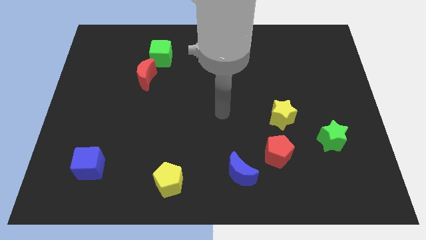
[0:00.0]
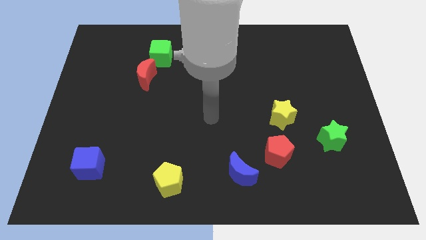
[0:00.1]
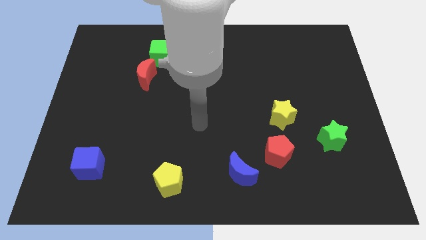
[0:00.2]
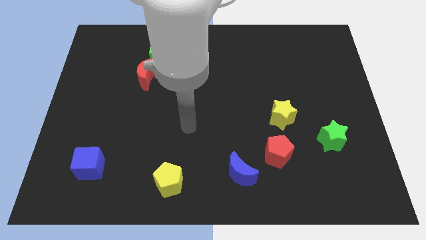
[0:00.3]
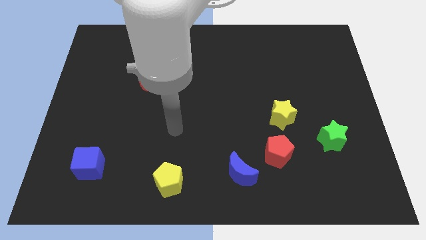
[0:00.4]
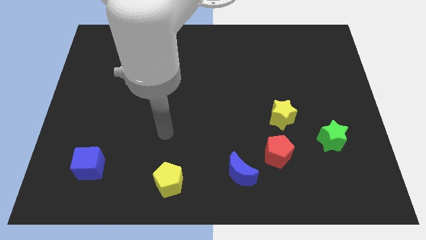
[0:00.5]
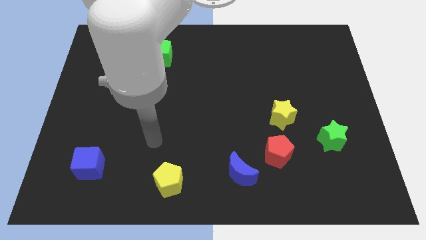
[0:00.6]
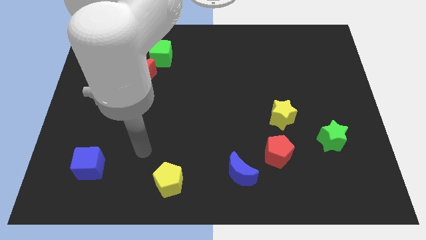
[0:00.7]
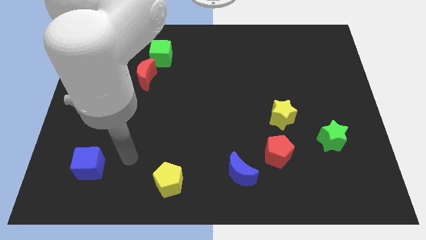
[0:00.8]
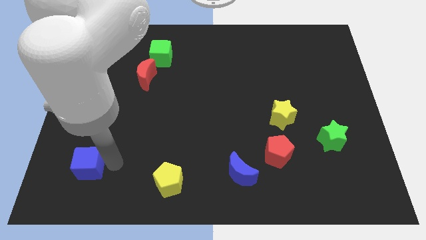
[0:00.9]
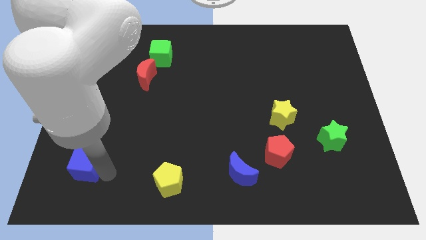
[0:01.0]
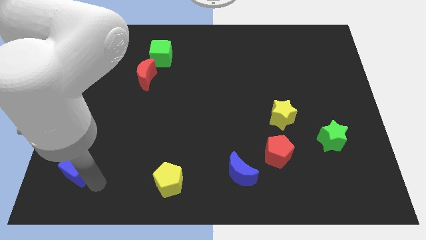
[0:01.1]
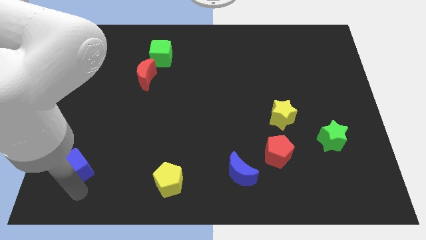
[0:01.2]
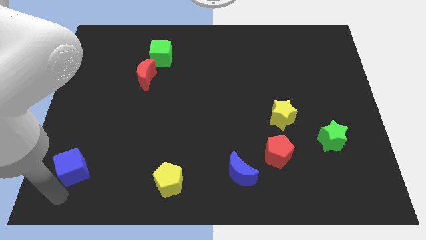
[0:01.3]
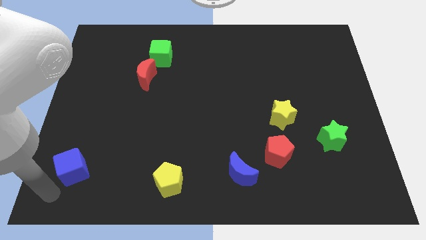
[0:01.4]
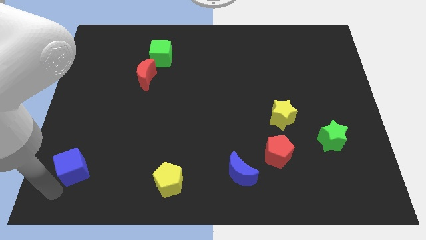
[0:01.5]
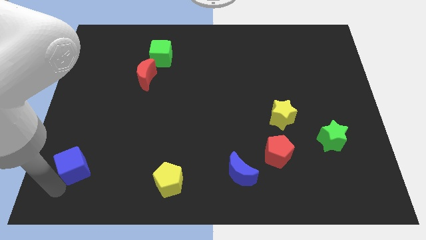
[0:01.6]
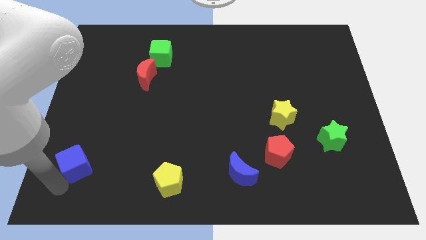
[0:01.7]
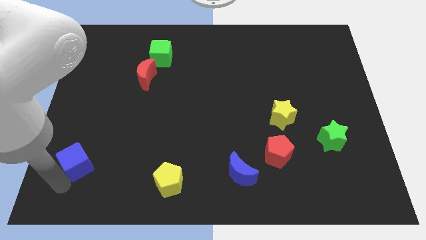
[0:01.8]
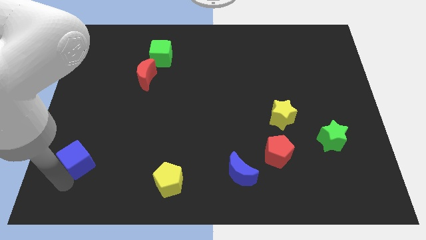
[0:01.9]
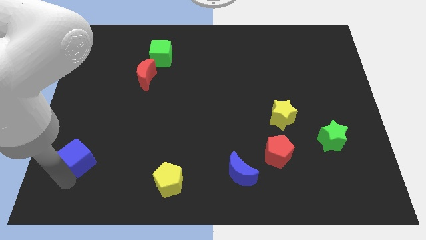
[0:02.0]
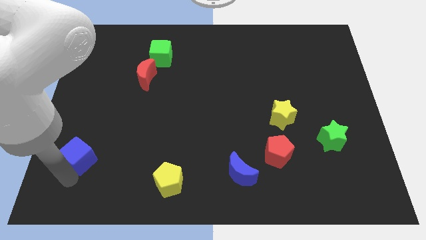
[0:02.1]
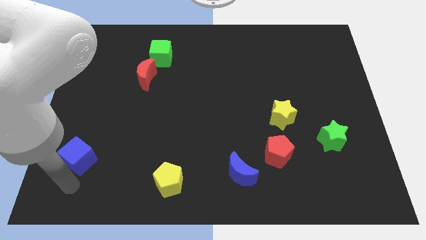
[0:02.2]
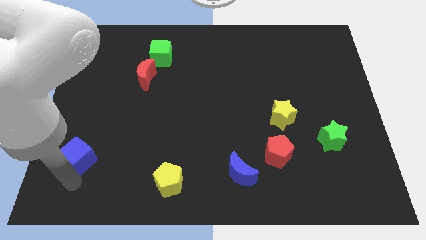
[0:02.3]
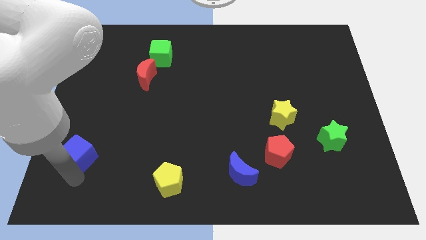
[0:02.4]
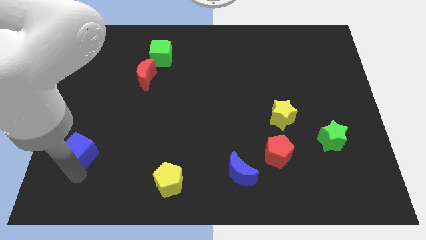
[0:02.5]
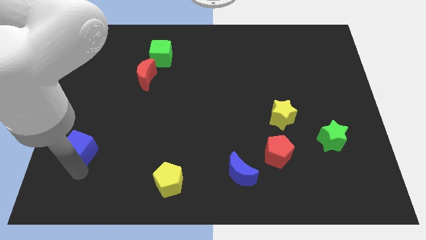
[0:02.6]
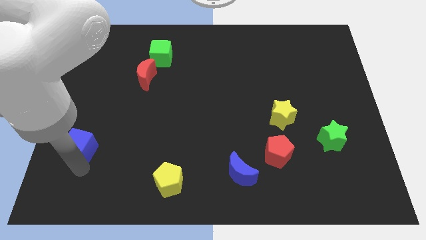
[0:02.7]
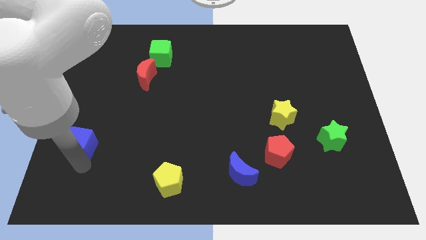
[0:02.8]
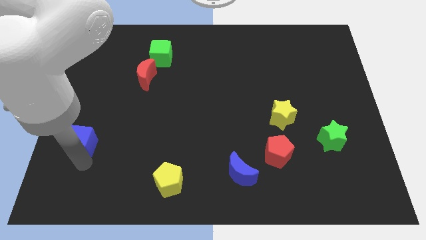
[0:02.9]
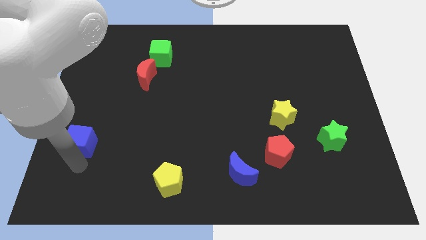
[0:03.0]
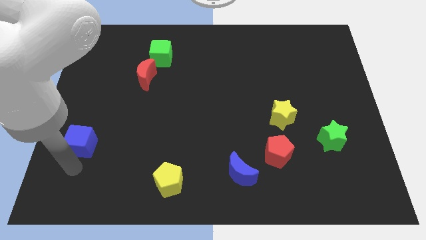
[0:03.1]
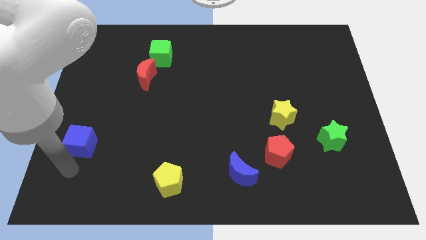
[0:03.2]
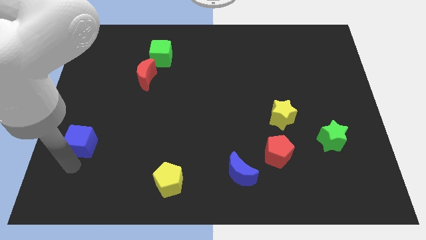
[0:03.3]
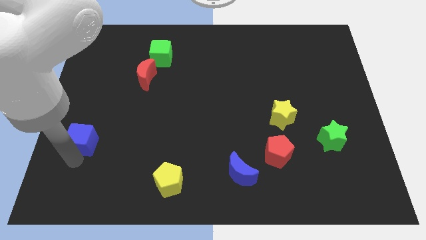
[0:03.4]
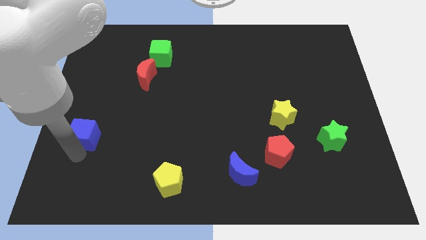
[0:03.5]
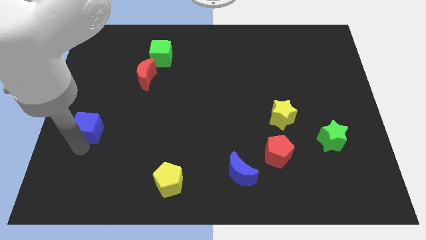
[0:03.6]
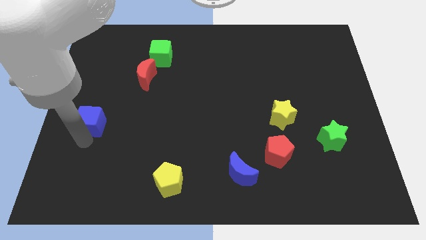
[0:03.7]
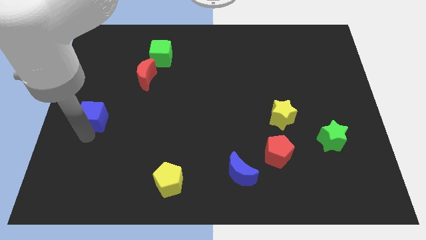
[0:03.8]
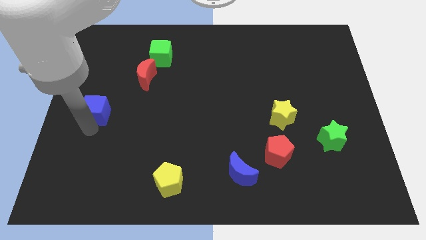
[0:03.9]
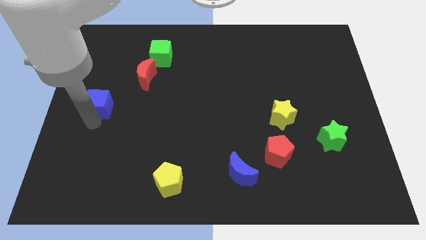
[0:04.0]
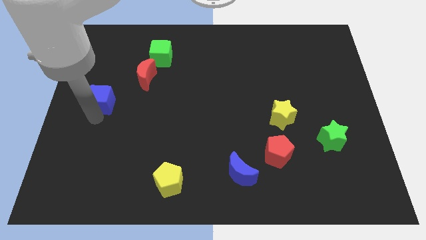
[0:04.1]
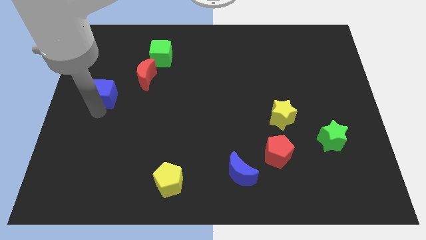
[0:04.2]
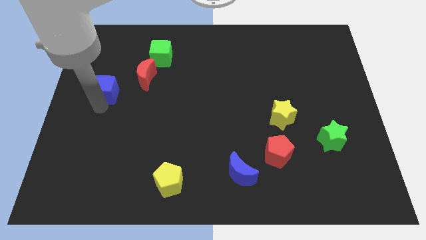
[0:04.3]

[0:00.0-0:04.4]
move the blue cube up

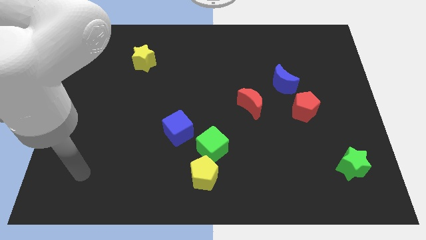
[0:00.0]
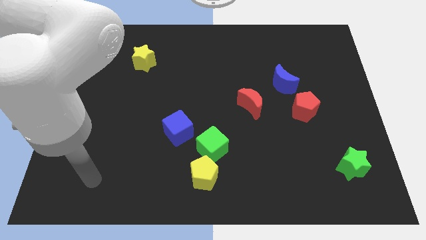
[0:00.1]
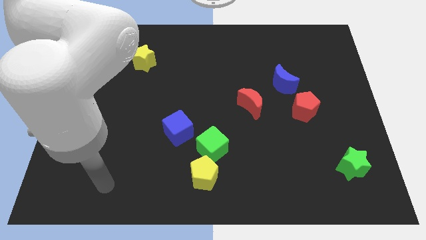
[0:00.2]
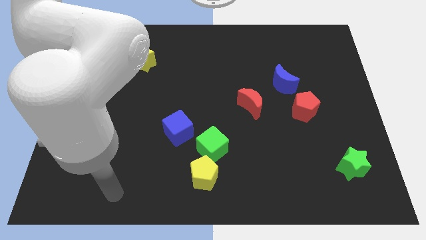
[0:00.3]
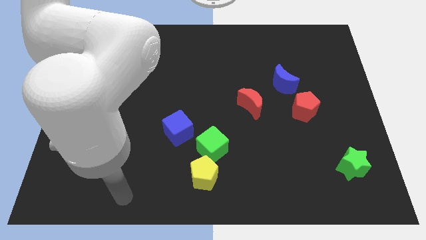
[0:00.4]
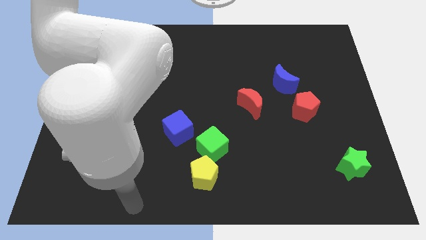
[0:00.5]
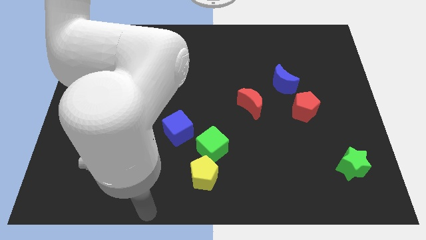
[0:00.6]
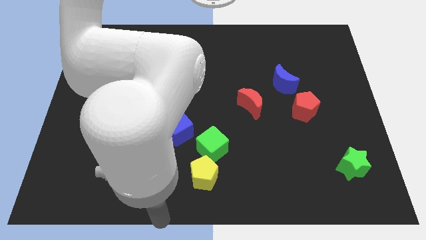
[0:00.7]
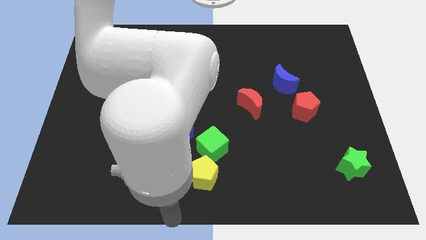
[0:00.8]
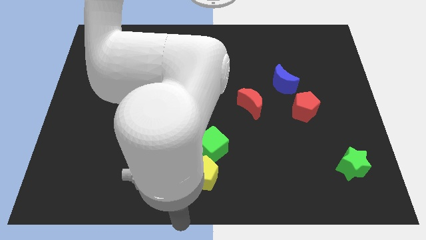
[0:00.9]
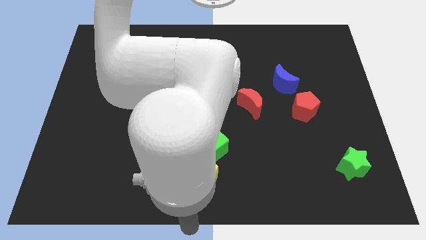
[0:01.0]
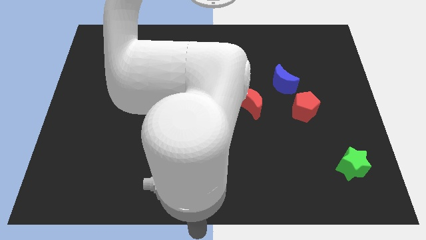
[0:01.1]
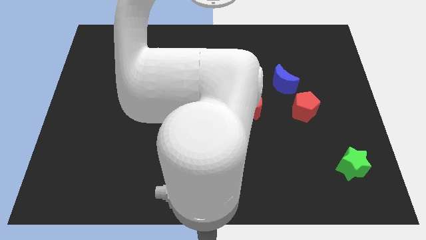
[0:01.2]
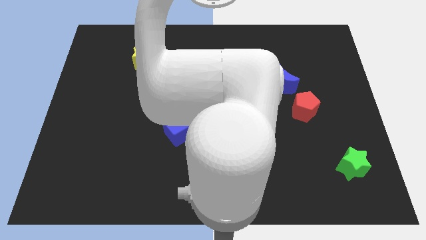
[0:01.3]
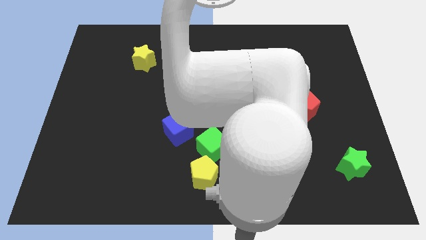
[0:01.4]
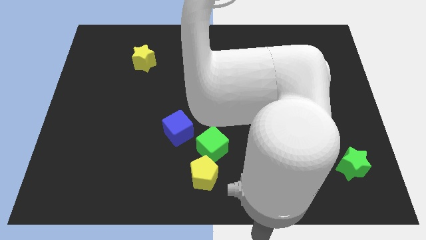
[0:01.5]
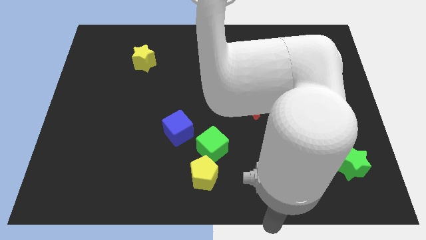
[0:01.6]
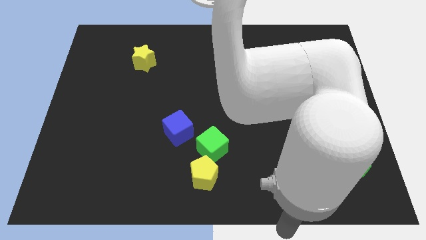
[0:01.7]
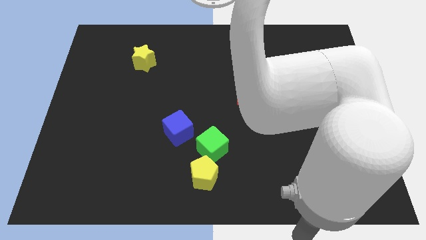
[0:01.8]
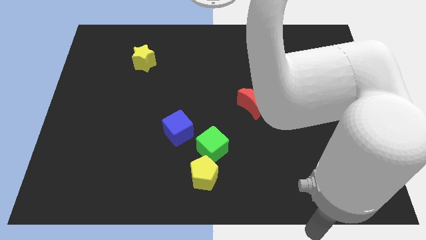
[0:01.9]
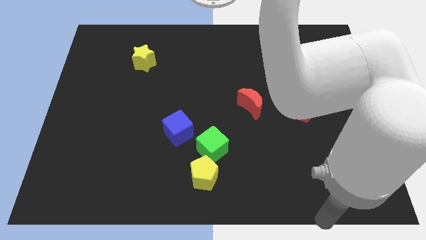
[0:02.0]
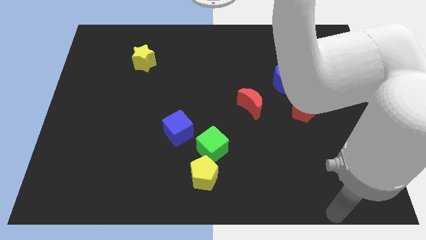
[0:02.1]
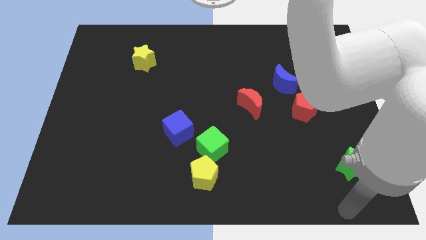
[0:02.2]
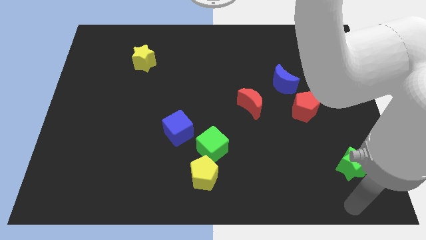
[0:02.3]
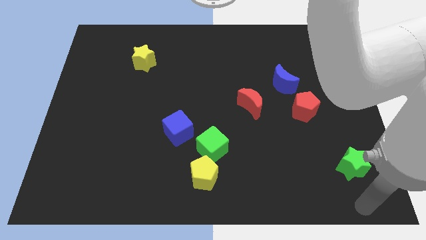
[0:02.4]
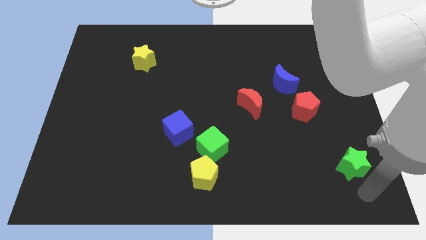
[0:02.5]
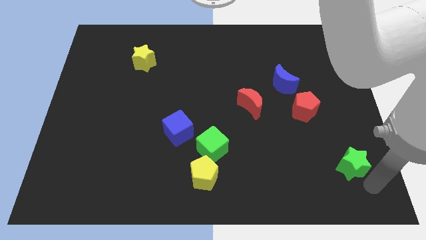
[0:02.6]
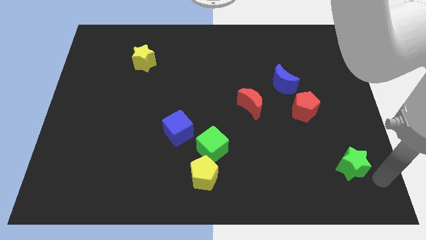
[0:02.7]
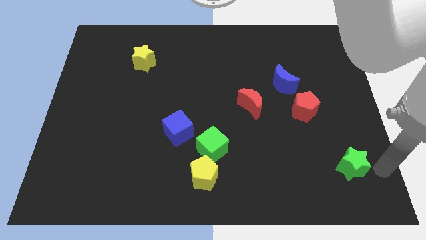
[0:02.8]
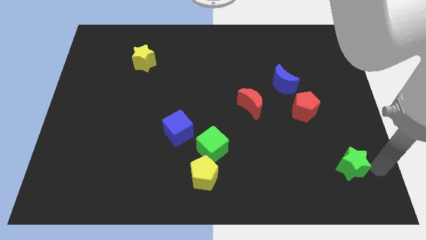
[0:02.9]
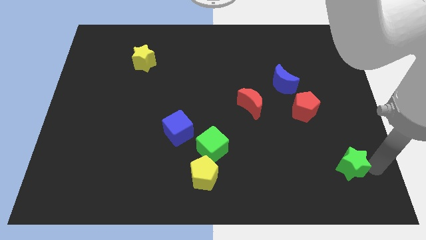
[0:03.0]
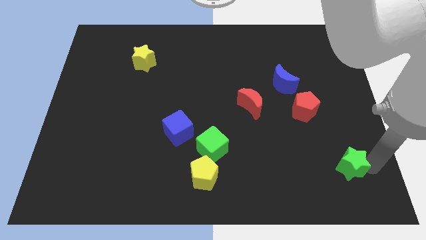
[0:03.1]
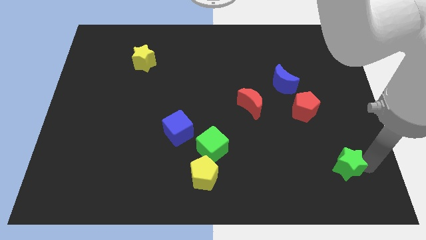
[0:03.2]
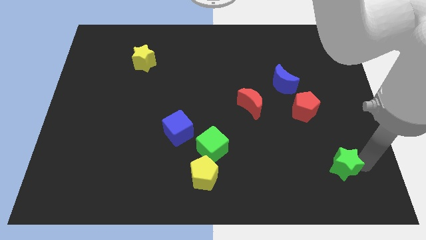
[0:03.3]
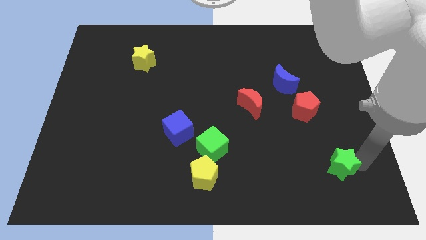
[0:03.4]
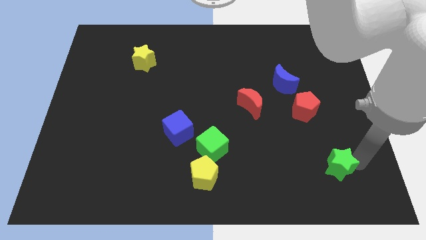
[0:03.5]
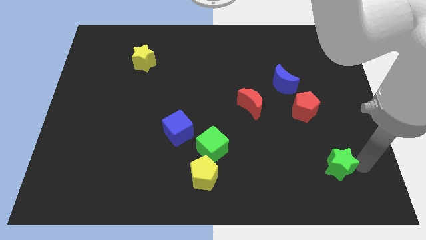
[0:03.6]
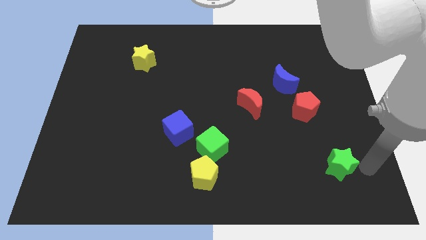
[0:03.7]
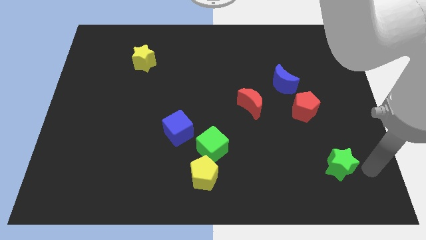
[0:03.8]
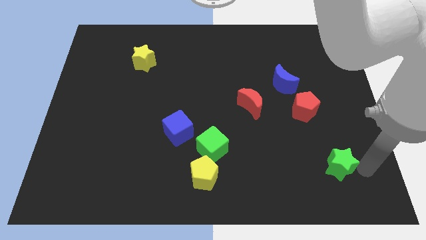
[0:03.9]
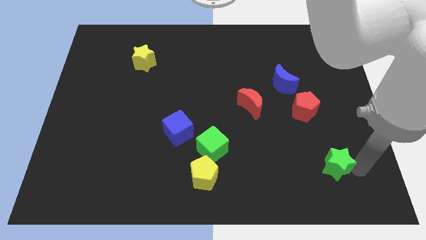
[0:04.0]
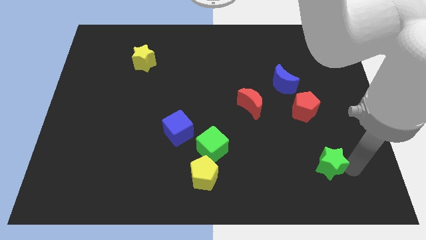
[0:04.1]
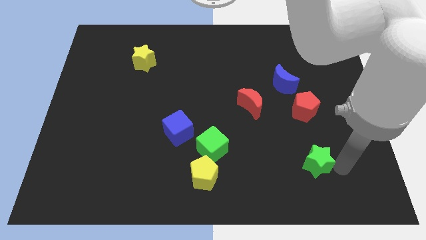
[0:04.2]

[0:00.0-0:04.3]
move the green star a bit left
